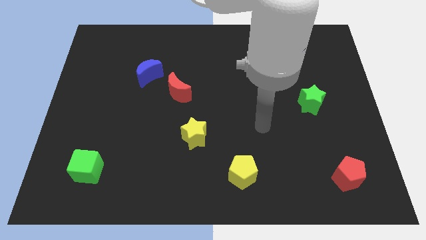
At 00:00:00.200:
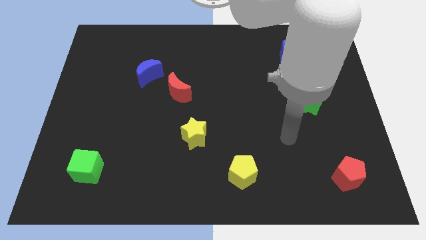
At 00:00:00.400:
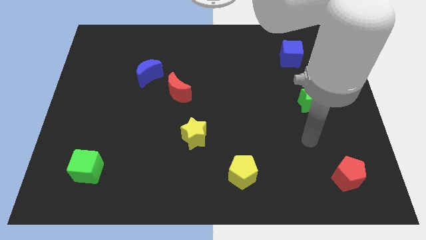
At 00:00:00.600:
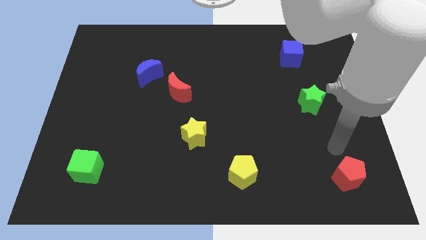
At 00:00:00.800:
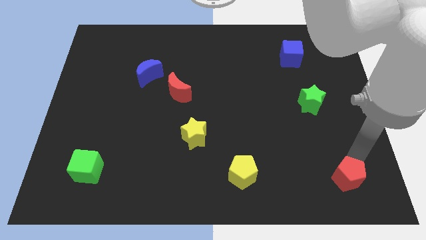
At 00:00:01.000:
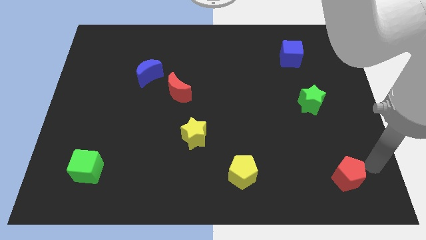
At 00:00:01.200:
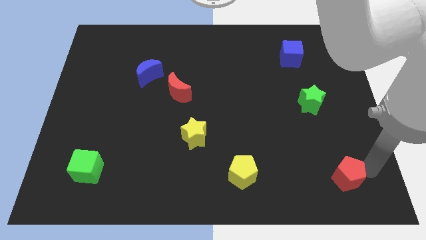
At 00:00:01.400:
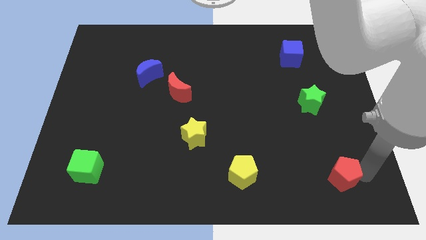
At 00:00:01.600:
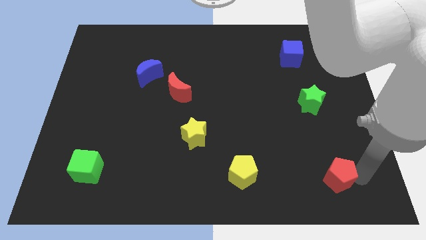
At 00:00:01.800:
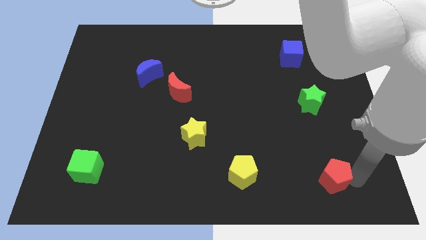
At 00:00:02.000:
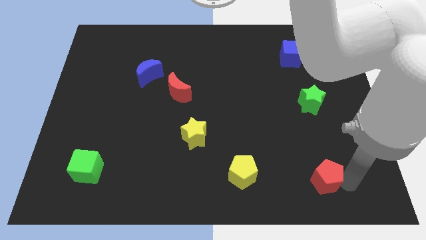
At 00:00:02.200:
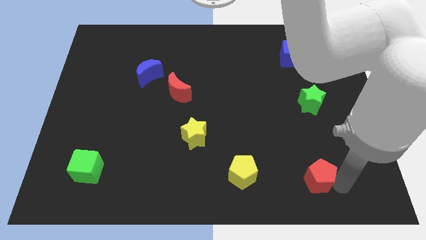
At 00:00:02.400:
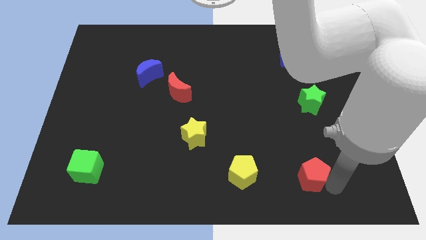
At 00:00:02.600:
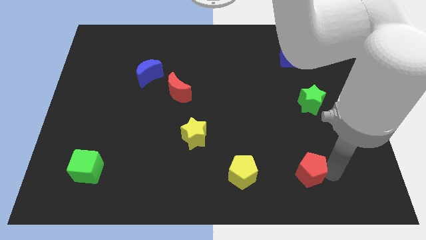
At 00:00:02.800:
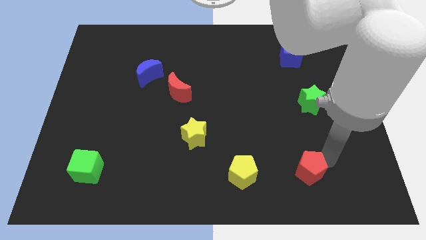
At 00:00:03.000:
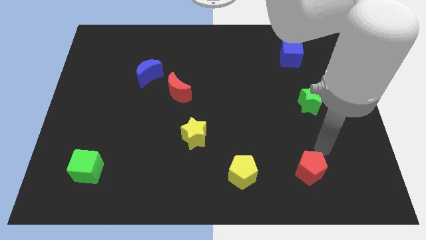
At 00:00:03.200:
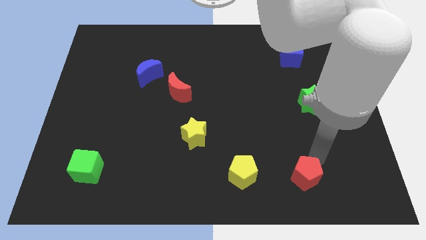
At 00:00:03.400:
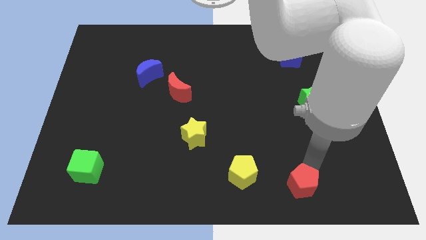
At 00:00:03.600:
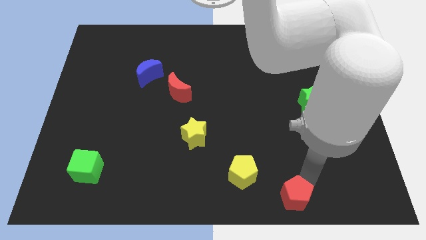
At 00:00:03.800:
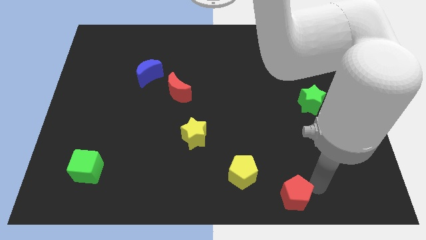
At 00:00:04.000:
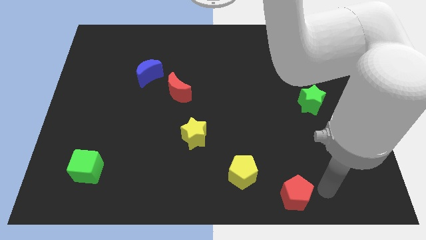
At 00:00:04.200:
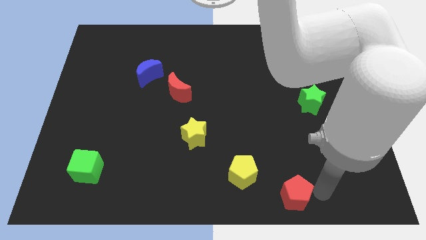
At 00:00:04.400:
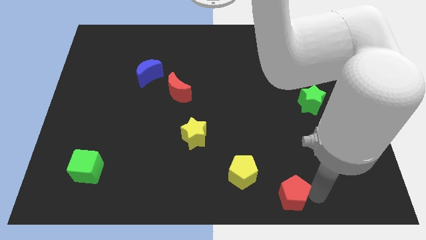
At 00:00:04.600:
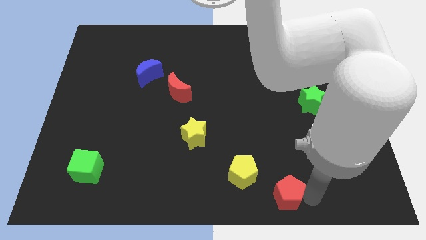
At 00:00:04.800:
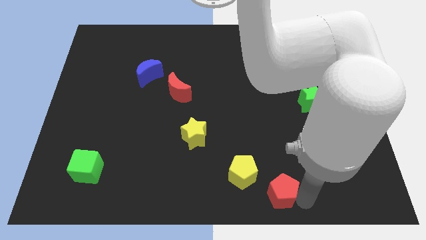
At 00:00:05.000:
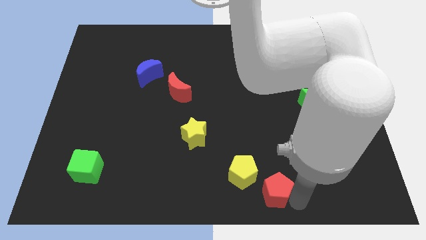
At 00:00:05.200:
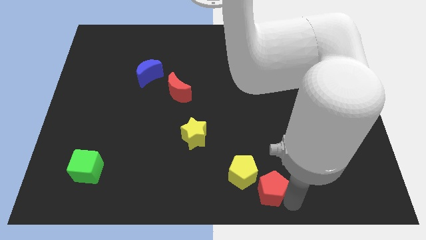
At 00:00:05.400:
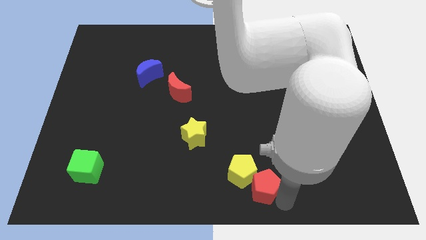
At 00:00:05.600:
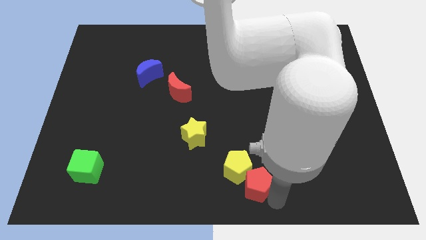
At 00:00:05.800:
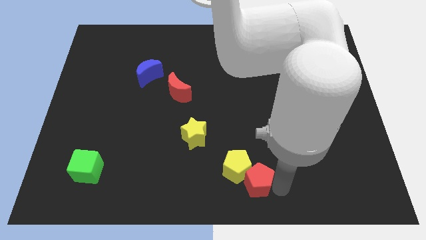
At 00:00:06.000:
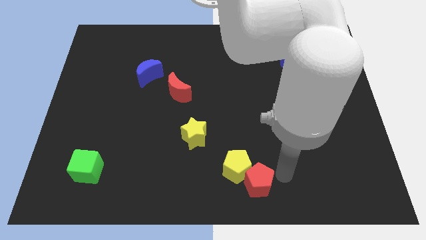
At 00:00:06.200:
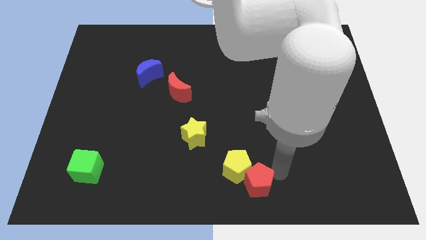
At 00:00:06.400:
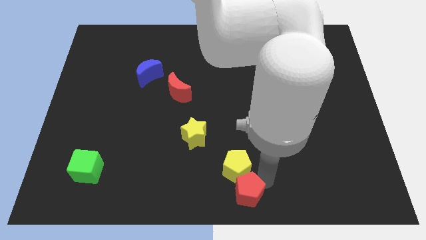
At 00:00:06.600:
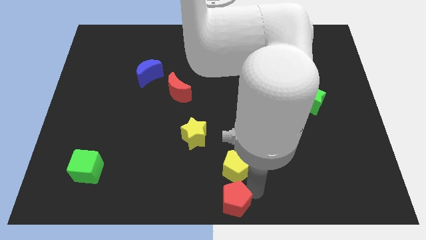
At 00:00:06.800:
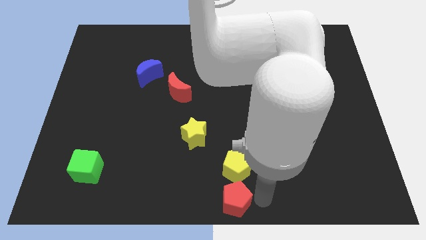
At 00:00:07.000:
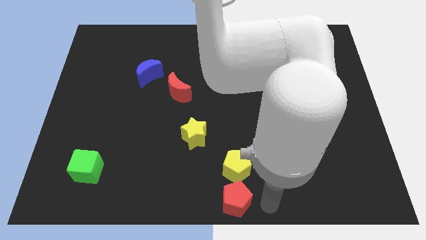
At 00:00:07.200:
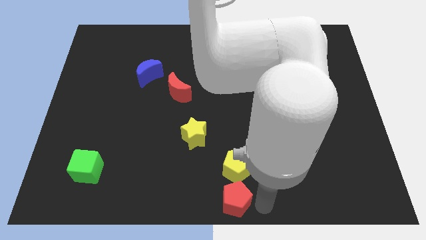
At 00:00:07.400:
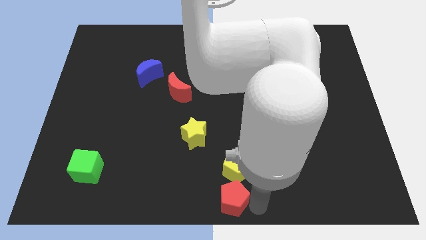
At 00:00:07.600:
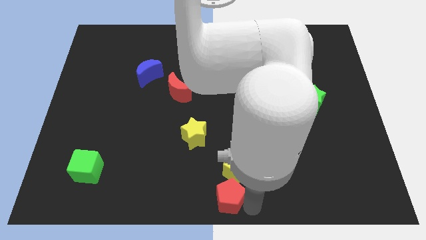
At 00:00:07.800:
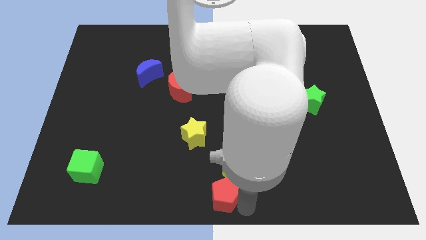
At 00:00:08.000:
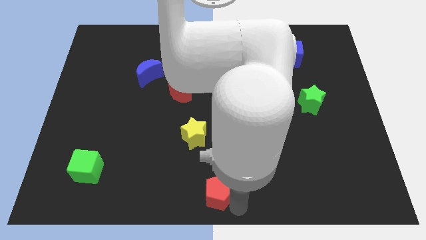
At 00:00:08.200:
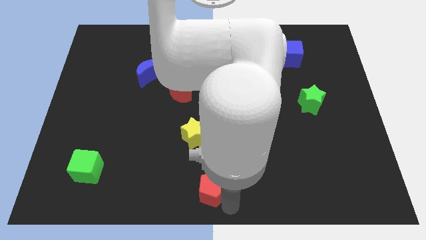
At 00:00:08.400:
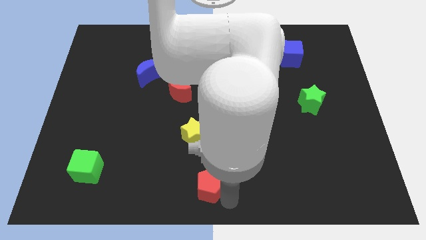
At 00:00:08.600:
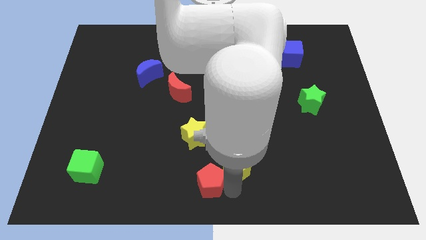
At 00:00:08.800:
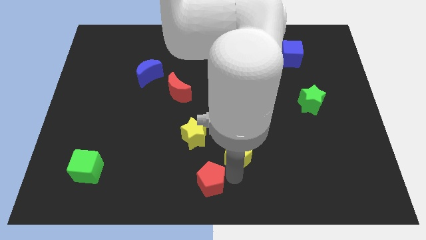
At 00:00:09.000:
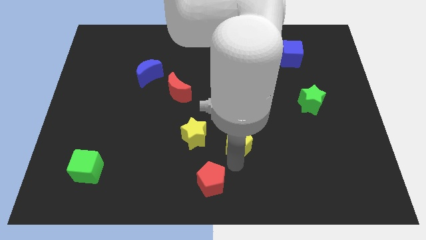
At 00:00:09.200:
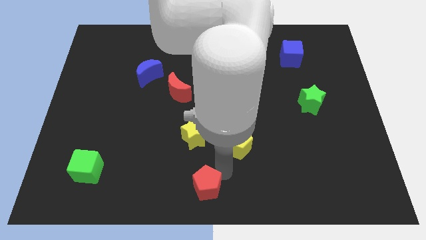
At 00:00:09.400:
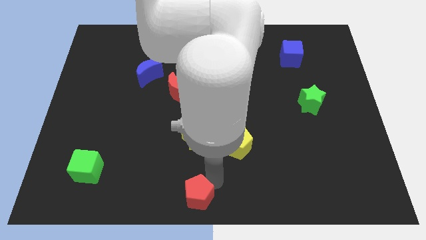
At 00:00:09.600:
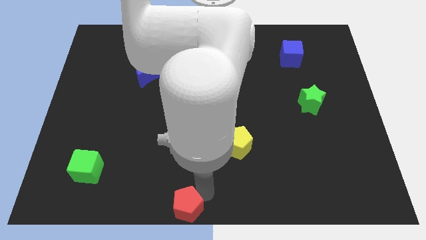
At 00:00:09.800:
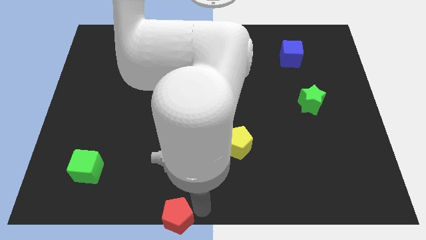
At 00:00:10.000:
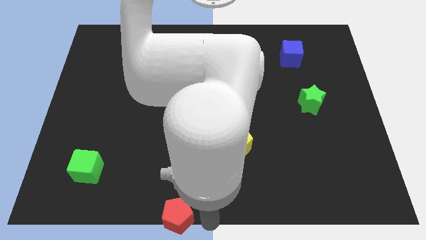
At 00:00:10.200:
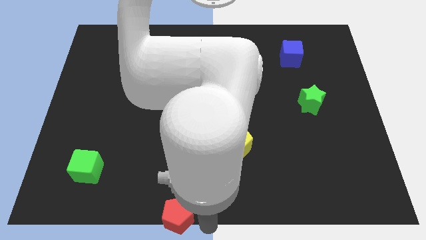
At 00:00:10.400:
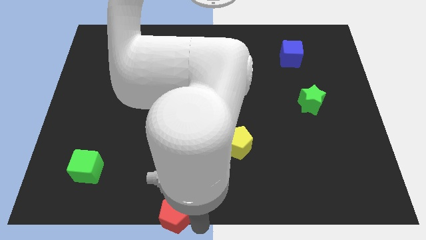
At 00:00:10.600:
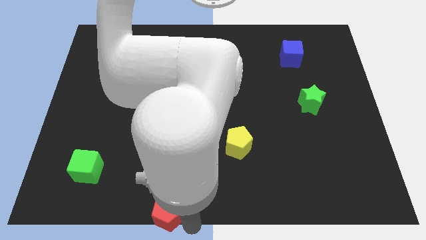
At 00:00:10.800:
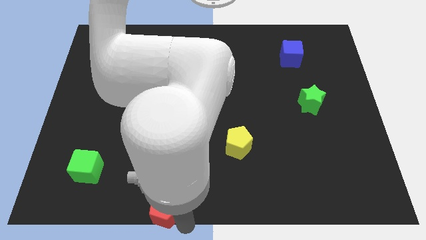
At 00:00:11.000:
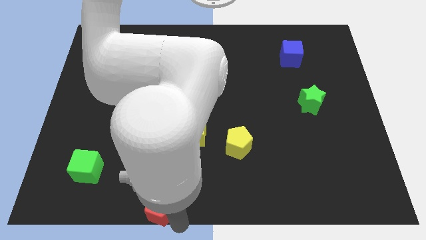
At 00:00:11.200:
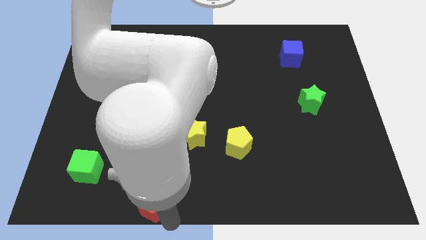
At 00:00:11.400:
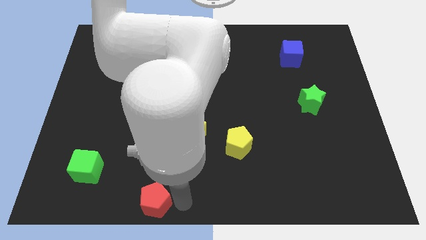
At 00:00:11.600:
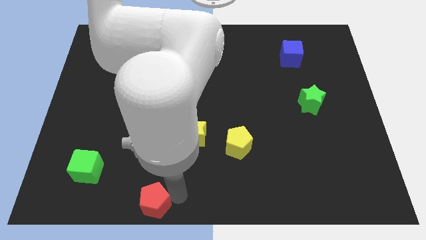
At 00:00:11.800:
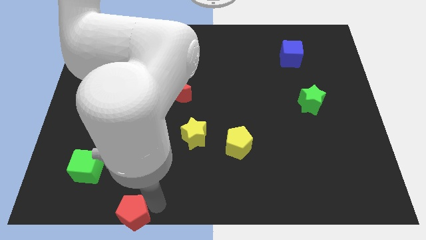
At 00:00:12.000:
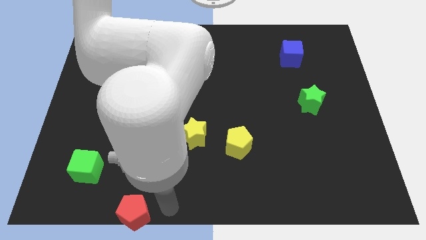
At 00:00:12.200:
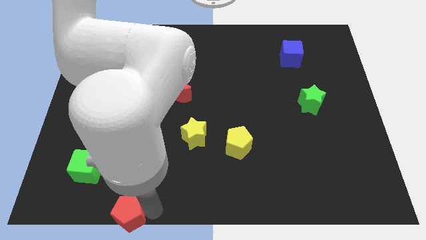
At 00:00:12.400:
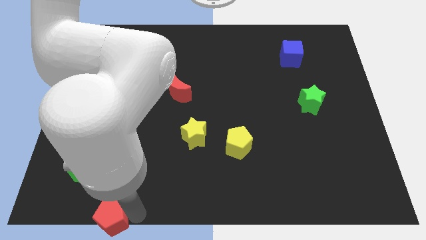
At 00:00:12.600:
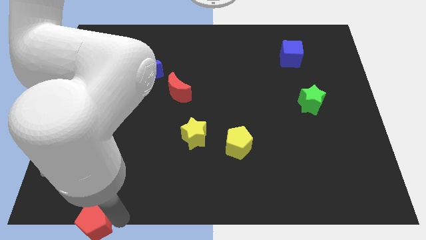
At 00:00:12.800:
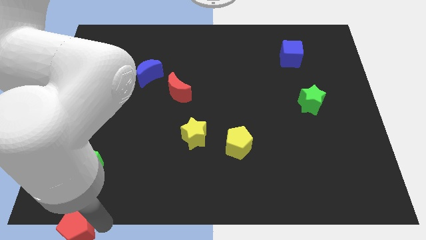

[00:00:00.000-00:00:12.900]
slide the red pentagon to the bottom left of the board

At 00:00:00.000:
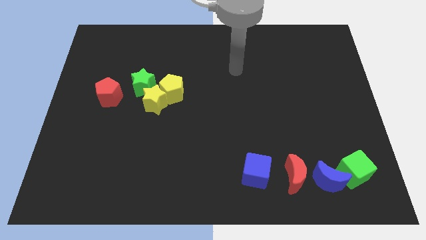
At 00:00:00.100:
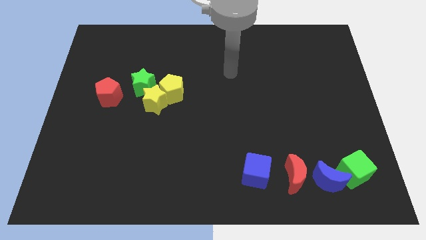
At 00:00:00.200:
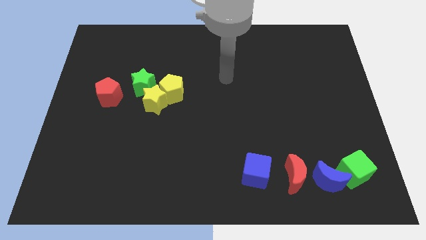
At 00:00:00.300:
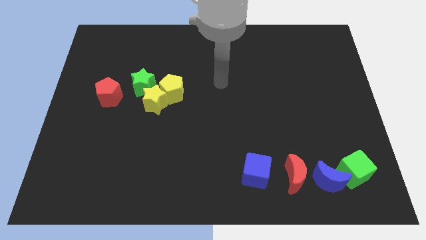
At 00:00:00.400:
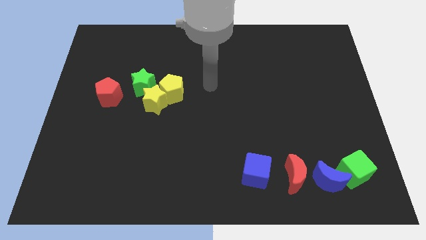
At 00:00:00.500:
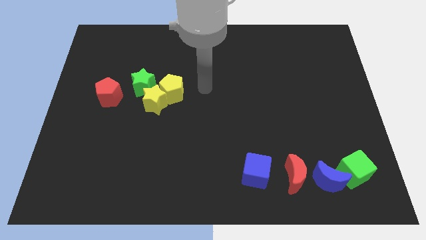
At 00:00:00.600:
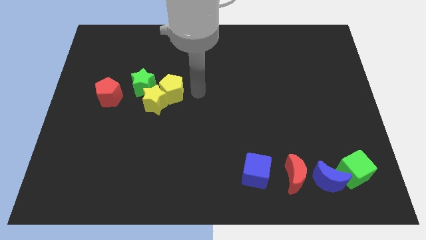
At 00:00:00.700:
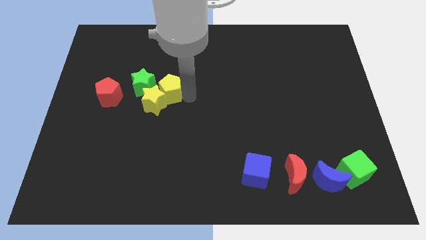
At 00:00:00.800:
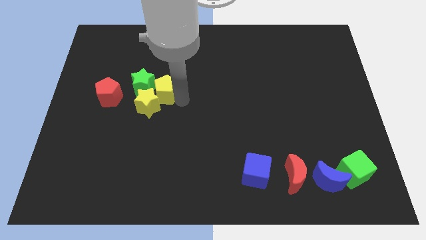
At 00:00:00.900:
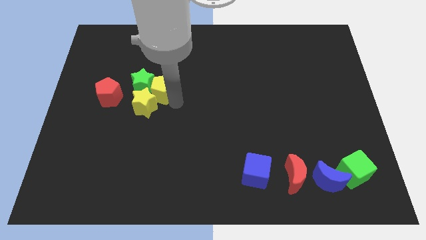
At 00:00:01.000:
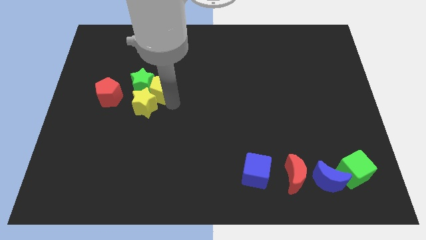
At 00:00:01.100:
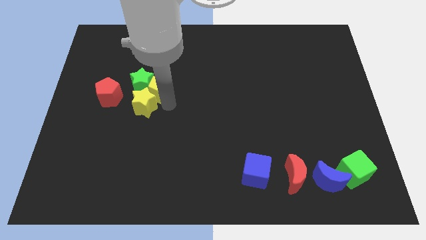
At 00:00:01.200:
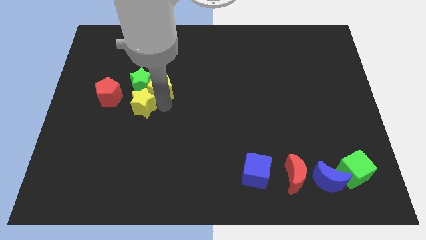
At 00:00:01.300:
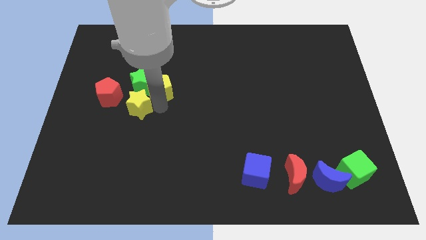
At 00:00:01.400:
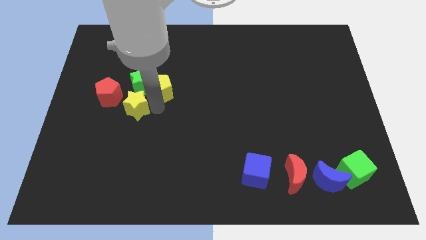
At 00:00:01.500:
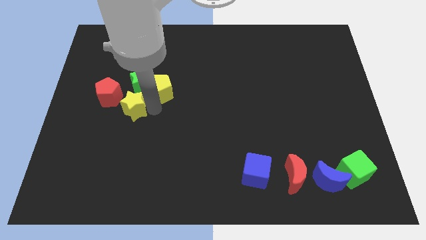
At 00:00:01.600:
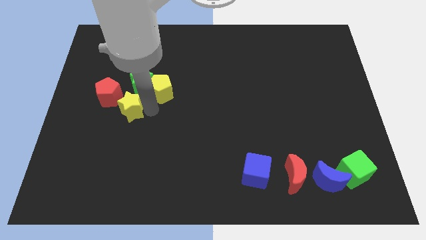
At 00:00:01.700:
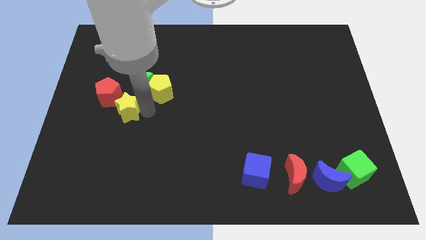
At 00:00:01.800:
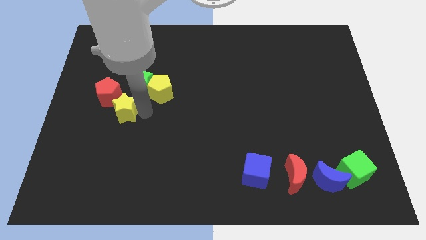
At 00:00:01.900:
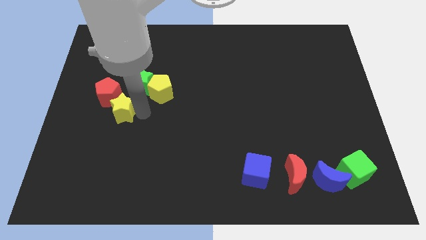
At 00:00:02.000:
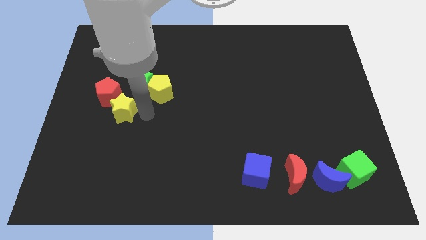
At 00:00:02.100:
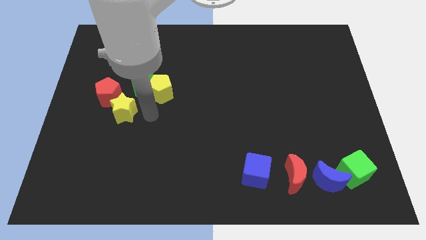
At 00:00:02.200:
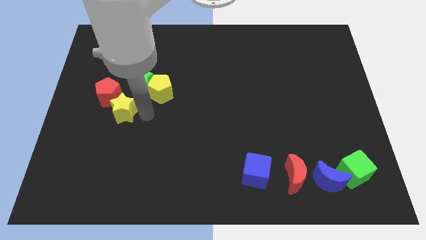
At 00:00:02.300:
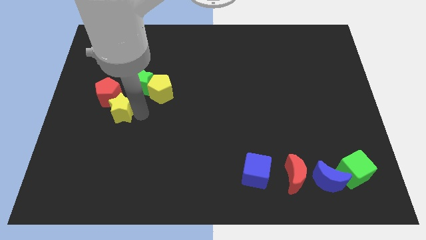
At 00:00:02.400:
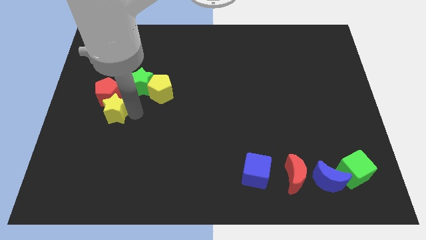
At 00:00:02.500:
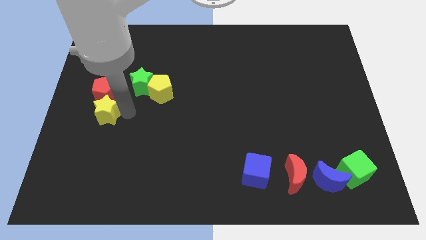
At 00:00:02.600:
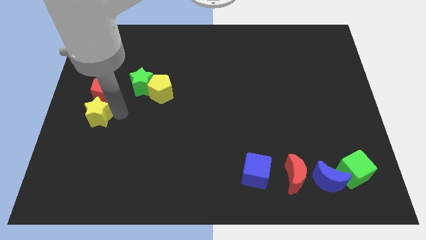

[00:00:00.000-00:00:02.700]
put the yellow star to the left side
